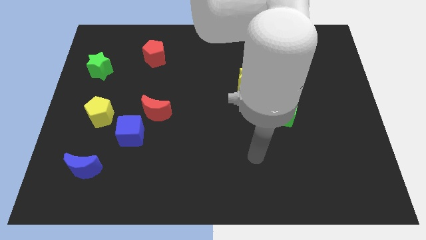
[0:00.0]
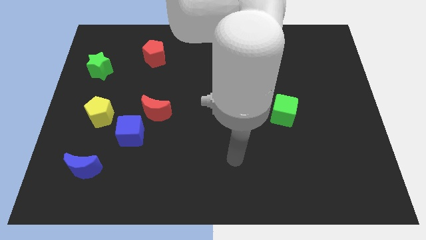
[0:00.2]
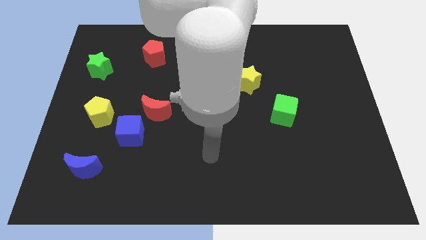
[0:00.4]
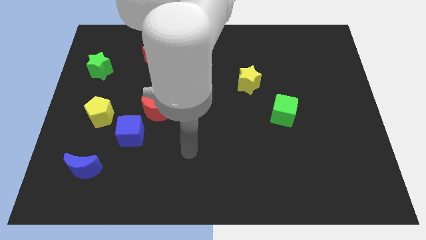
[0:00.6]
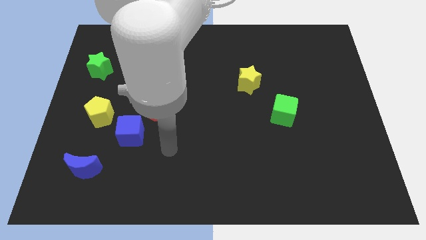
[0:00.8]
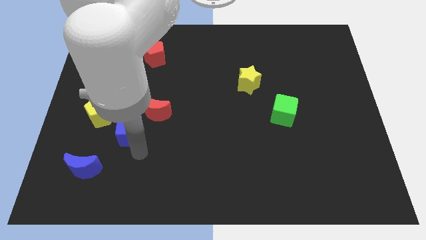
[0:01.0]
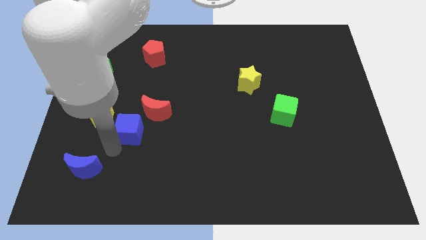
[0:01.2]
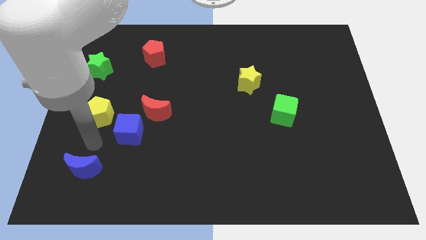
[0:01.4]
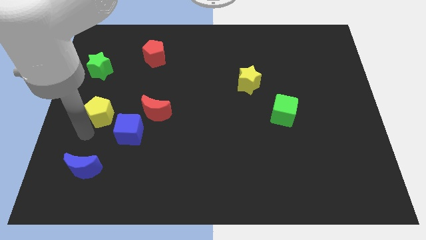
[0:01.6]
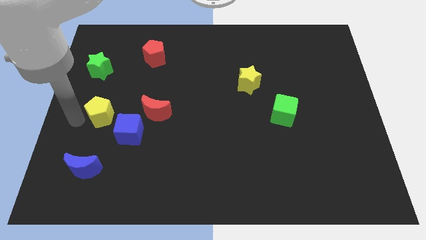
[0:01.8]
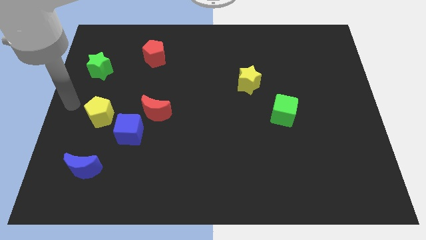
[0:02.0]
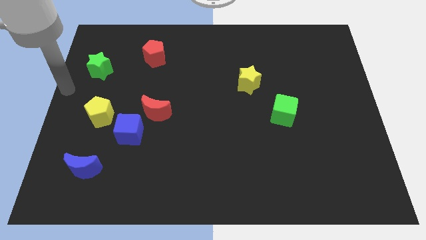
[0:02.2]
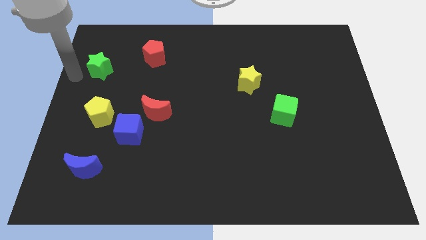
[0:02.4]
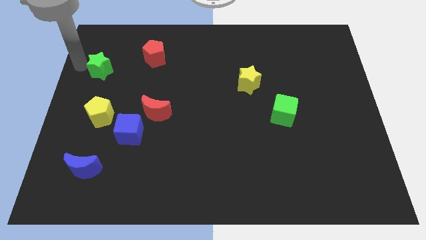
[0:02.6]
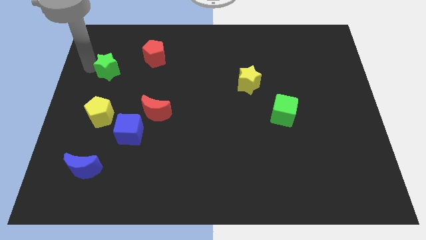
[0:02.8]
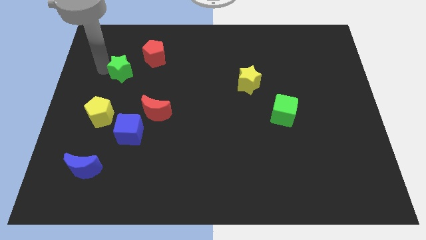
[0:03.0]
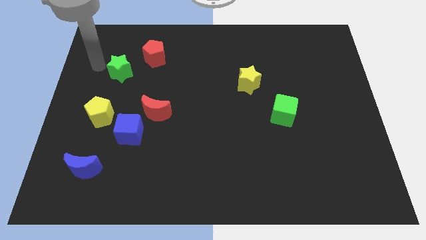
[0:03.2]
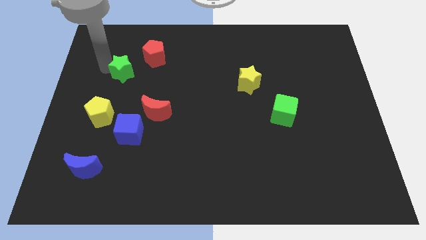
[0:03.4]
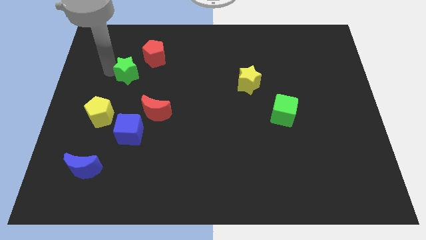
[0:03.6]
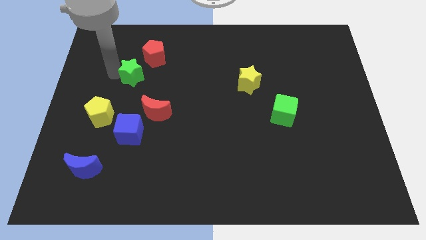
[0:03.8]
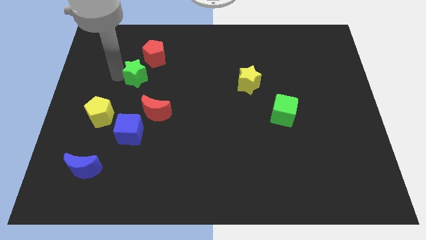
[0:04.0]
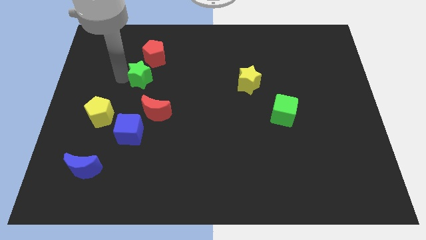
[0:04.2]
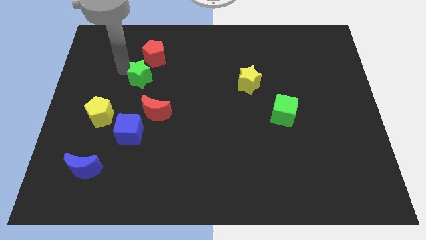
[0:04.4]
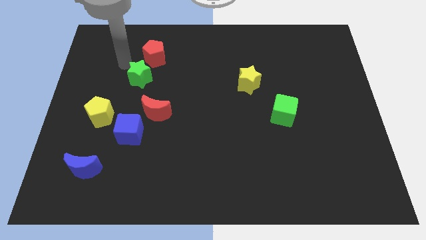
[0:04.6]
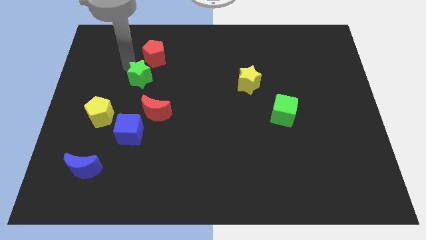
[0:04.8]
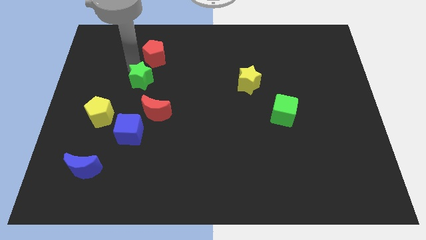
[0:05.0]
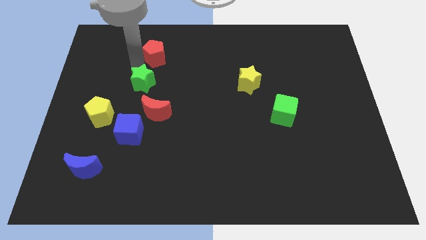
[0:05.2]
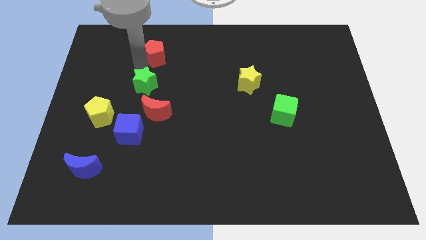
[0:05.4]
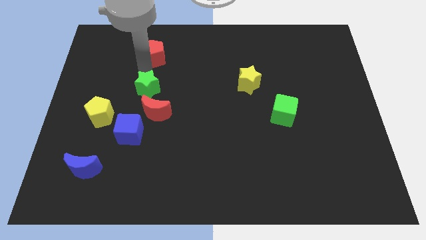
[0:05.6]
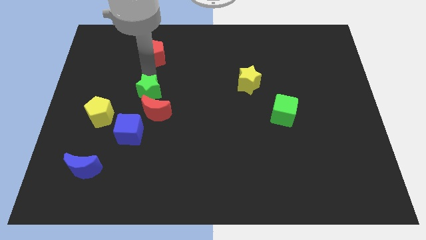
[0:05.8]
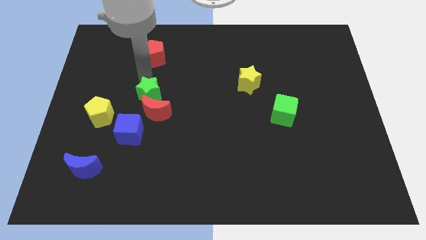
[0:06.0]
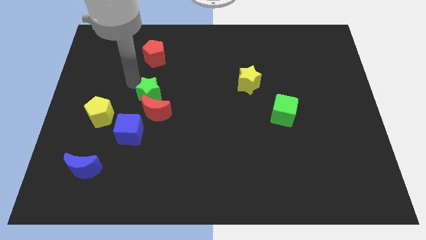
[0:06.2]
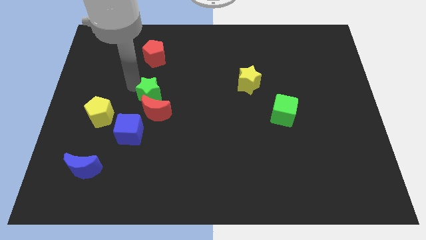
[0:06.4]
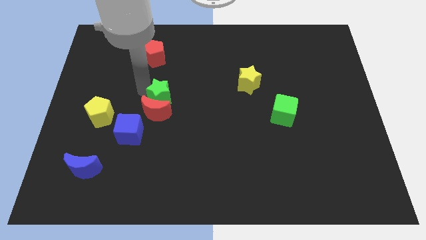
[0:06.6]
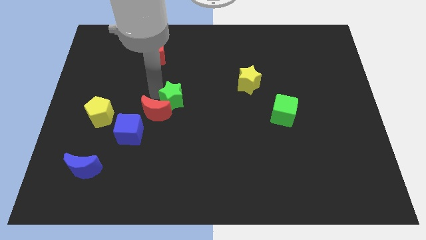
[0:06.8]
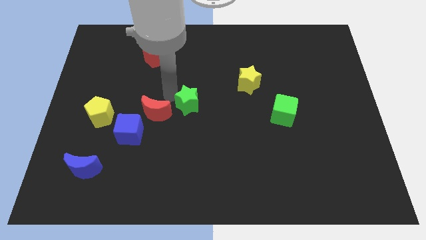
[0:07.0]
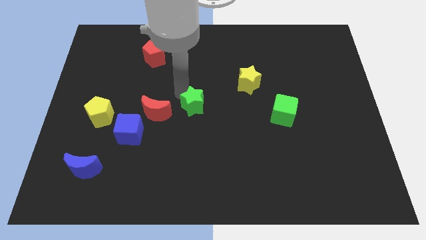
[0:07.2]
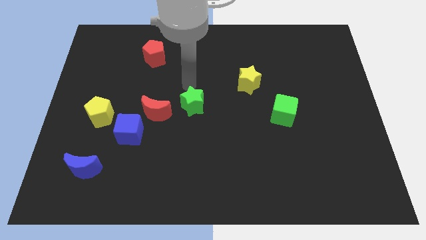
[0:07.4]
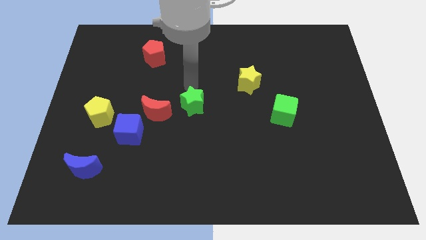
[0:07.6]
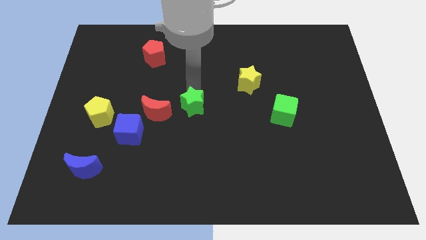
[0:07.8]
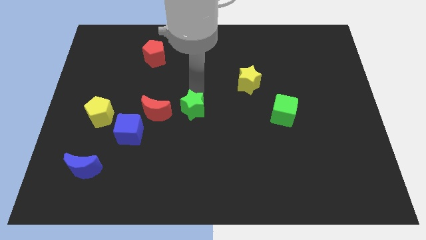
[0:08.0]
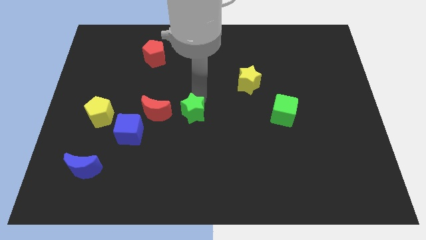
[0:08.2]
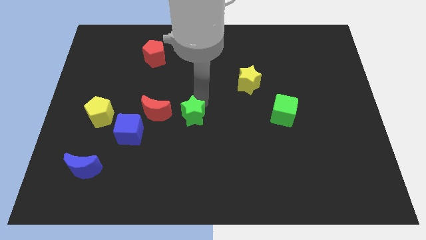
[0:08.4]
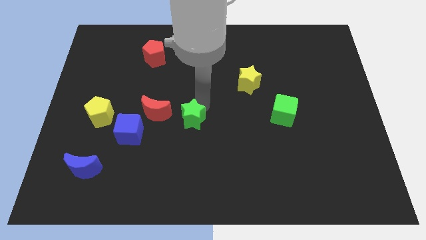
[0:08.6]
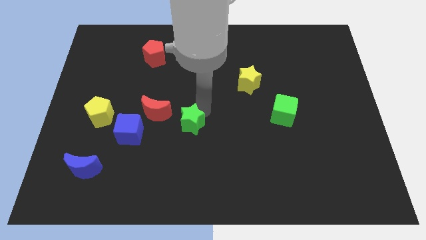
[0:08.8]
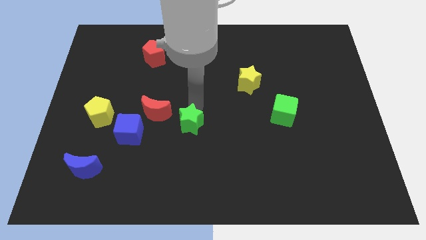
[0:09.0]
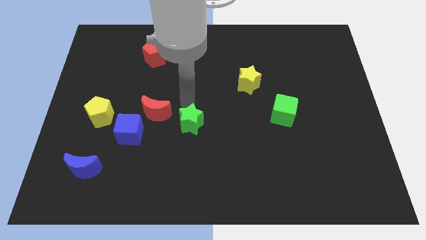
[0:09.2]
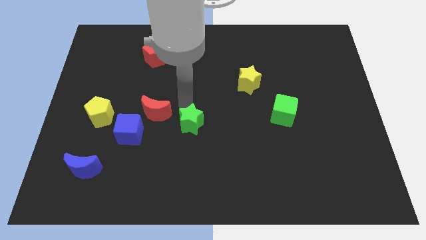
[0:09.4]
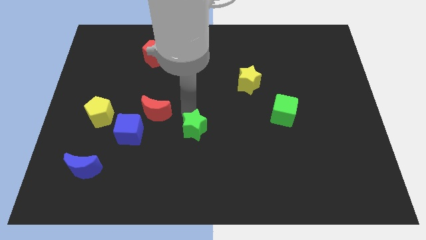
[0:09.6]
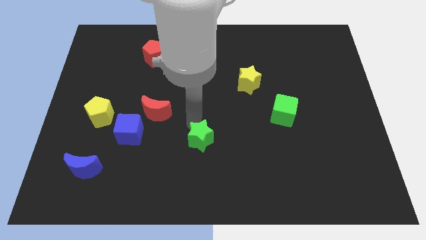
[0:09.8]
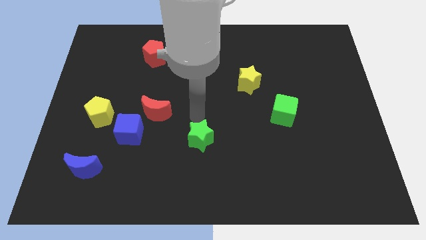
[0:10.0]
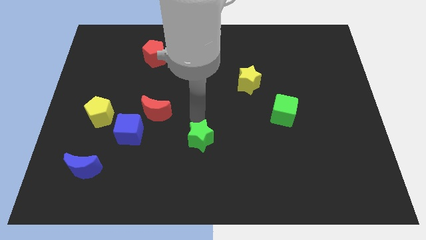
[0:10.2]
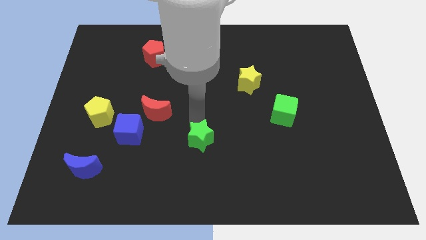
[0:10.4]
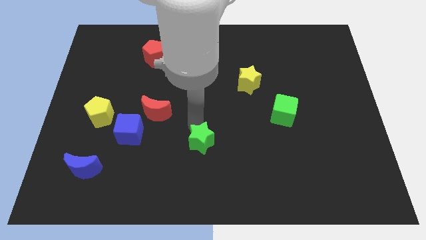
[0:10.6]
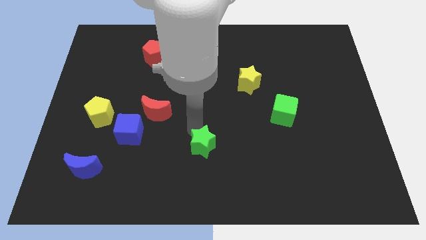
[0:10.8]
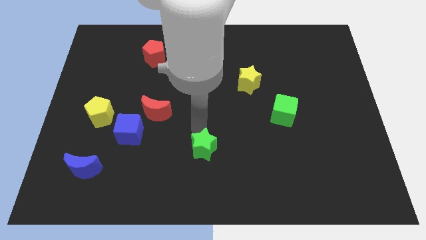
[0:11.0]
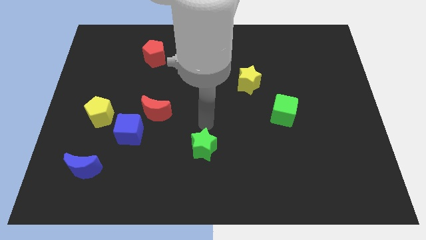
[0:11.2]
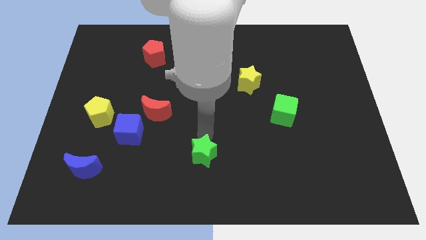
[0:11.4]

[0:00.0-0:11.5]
slide the green star to the bottom

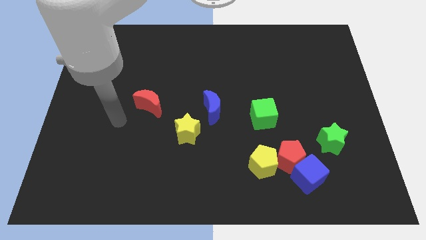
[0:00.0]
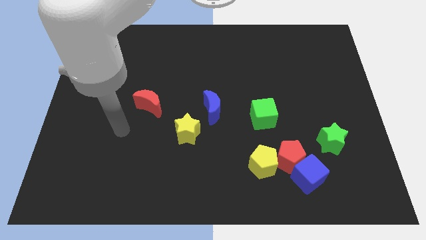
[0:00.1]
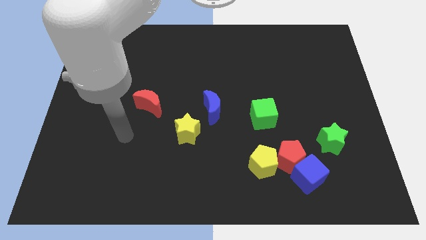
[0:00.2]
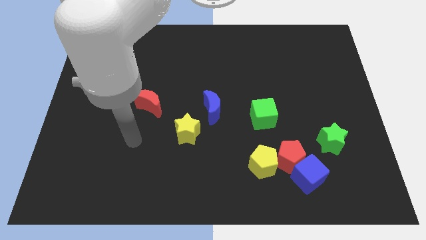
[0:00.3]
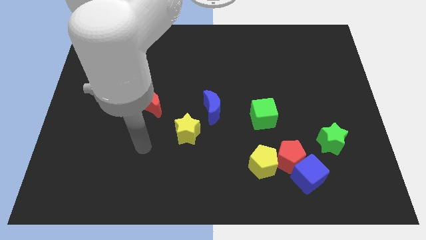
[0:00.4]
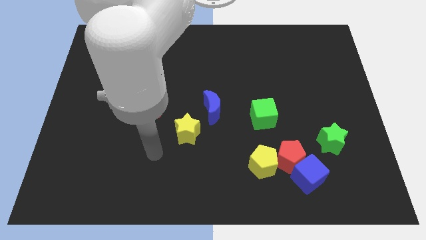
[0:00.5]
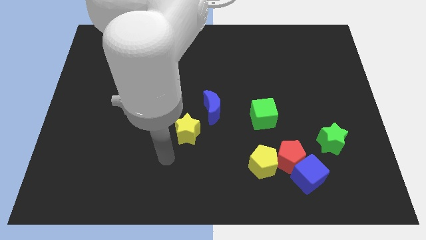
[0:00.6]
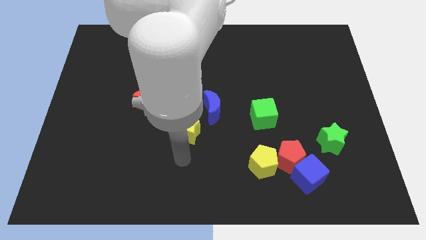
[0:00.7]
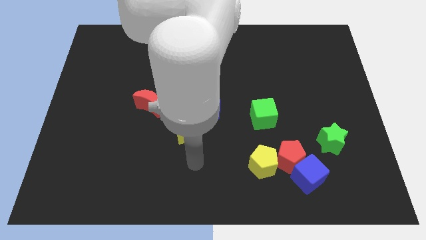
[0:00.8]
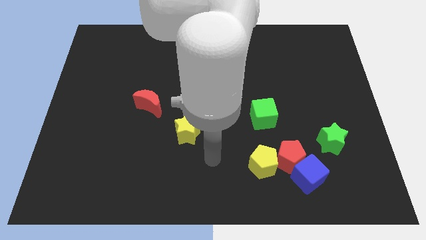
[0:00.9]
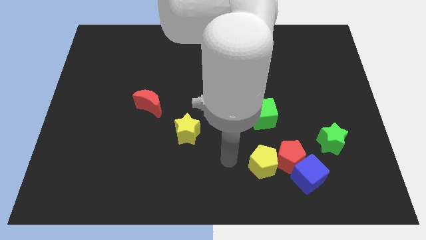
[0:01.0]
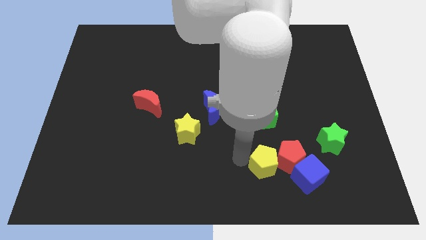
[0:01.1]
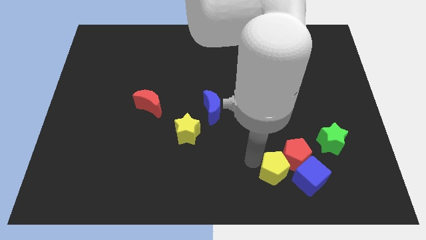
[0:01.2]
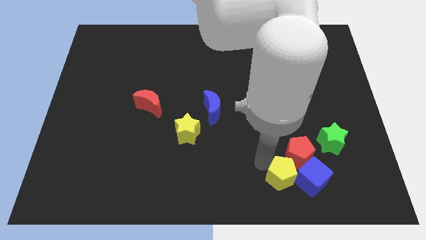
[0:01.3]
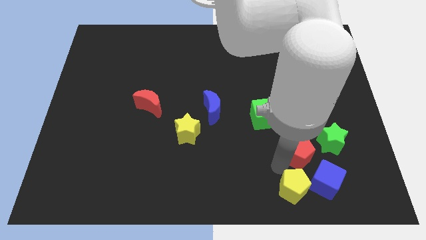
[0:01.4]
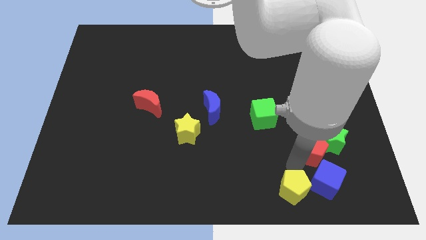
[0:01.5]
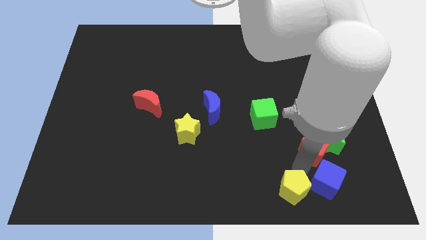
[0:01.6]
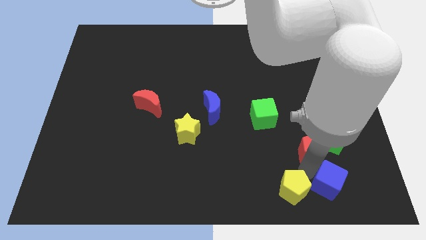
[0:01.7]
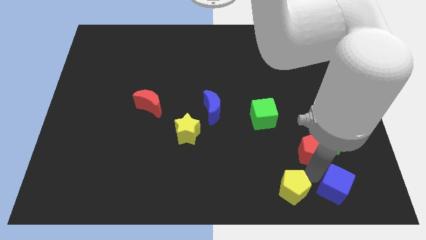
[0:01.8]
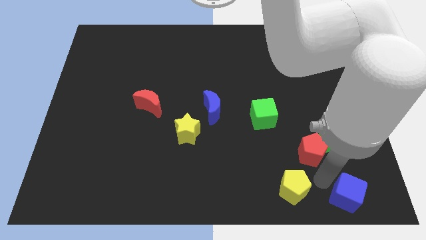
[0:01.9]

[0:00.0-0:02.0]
push the blue cube to the bottom right
